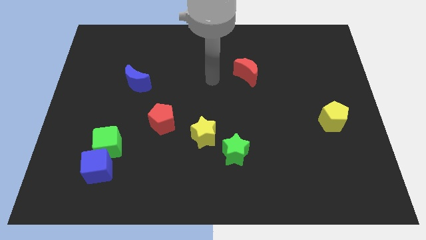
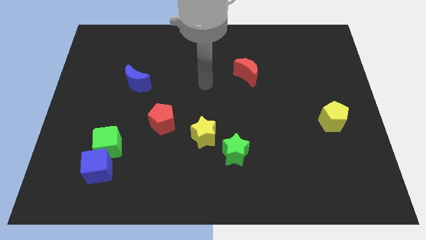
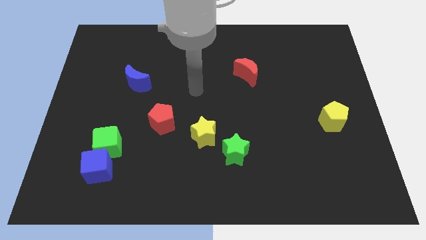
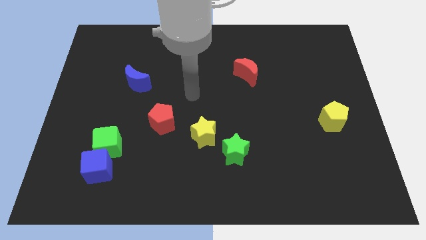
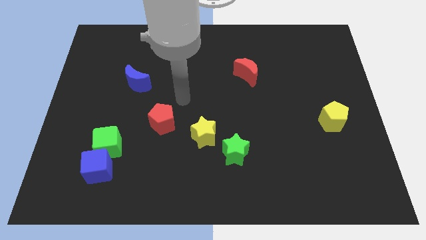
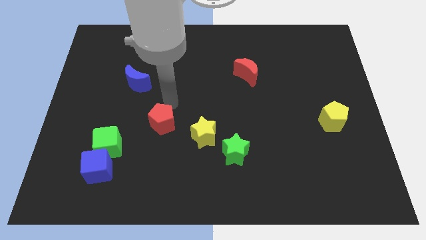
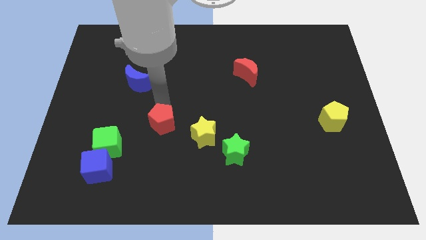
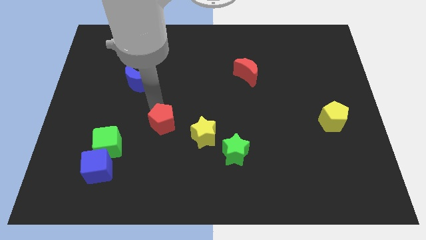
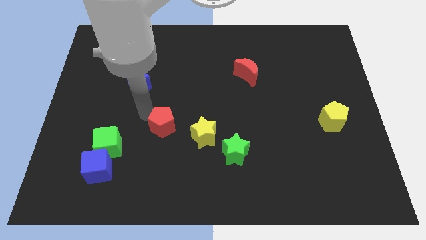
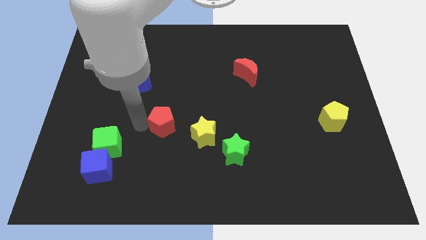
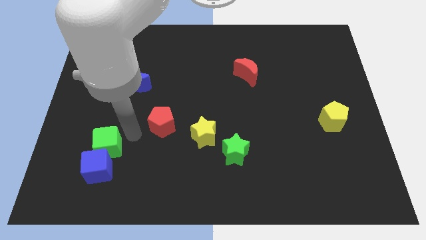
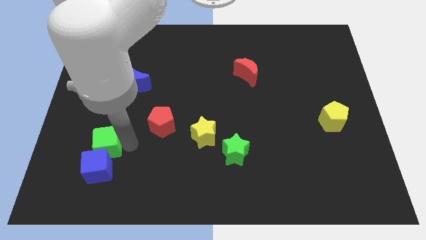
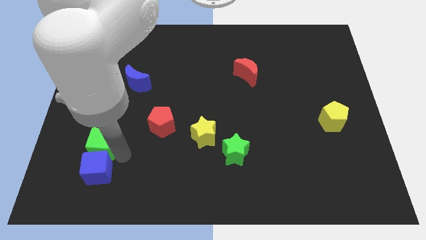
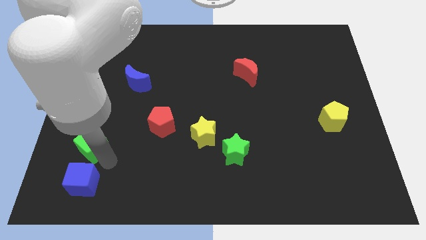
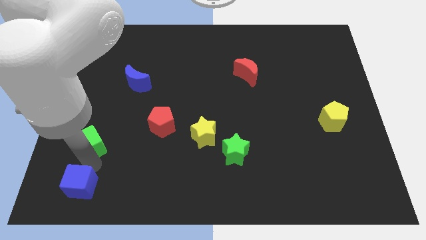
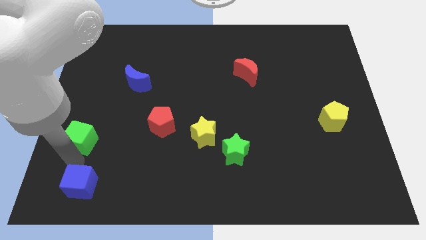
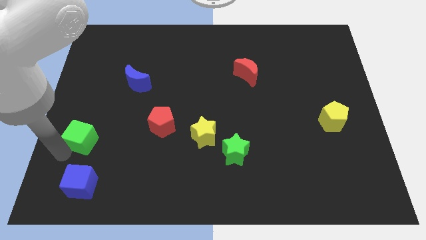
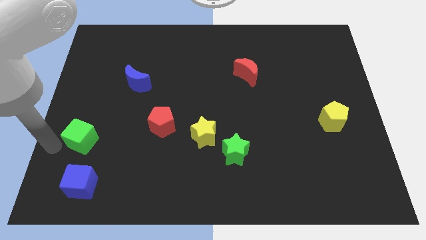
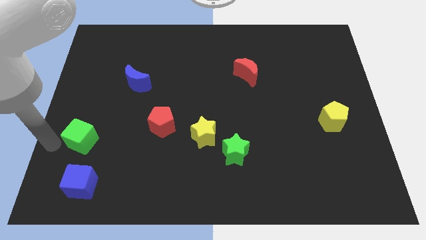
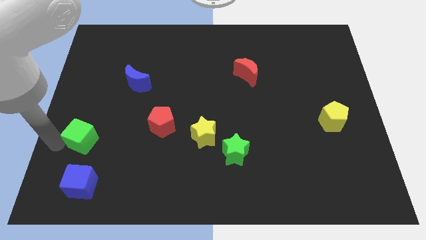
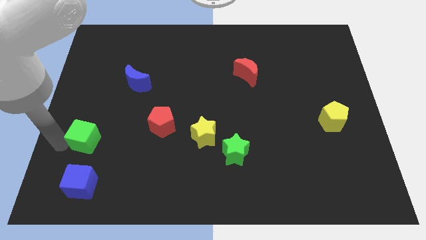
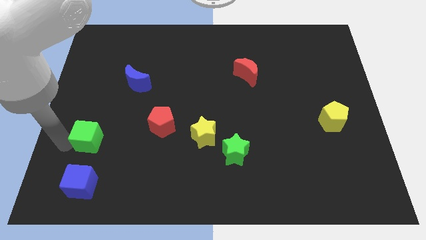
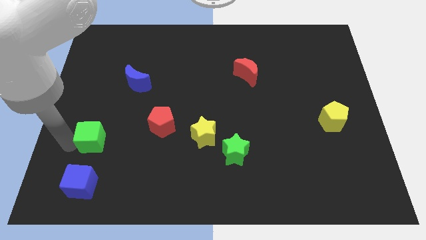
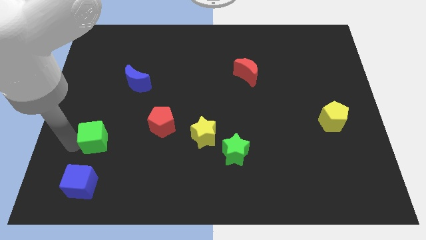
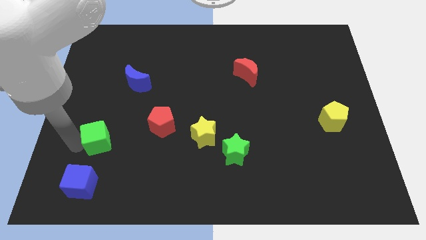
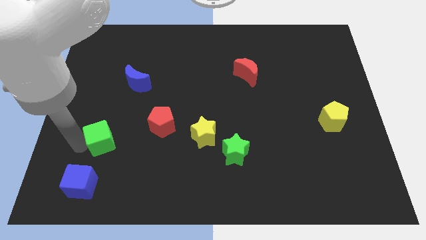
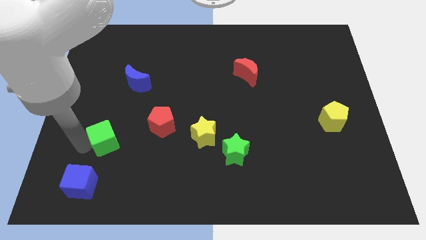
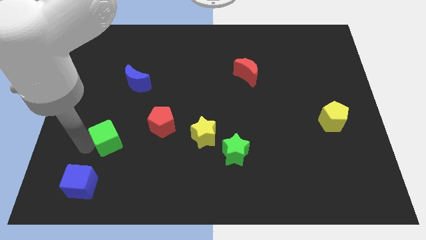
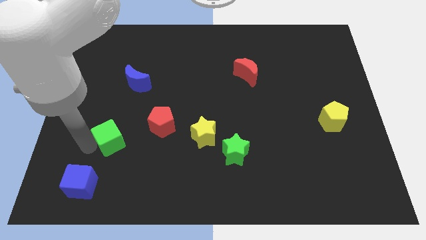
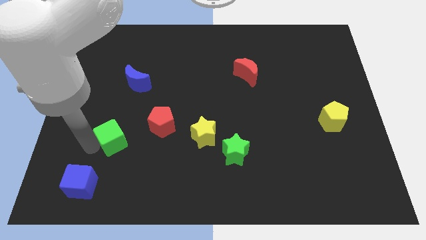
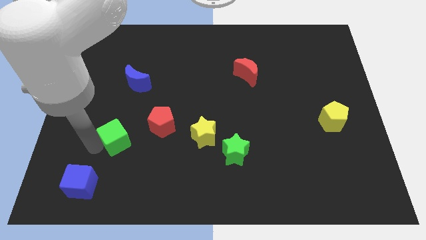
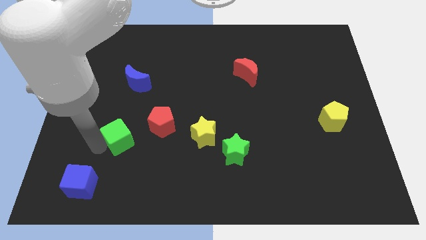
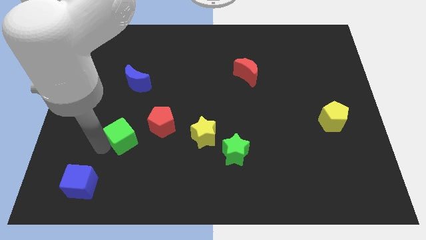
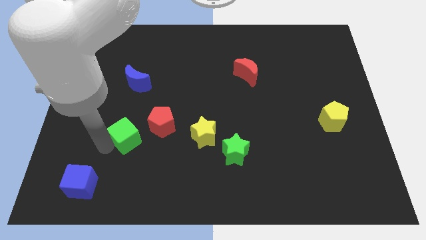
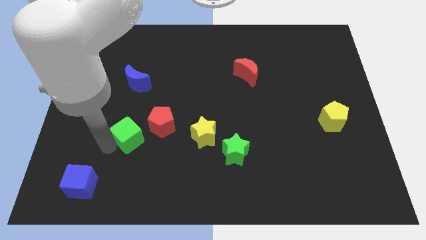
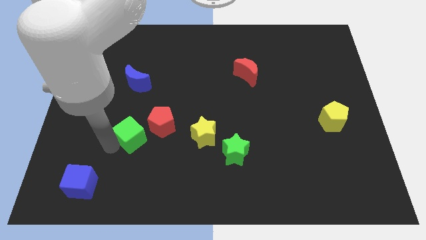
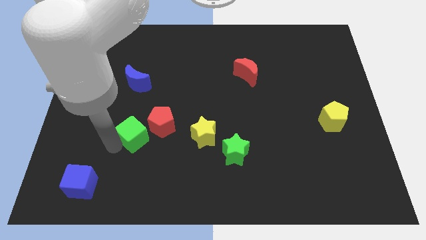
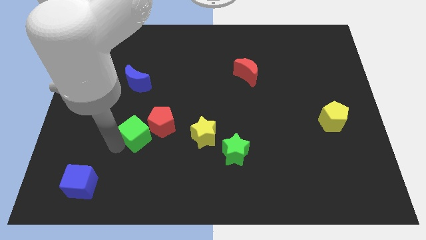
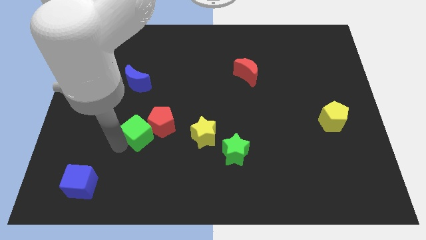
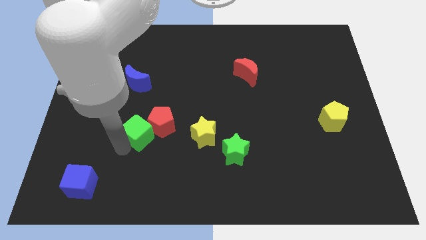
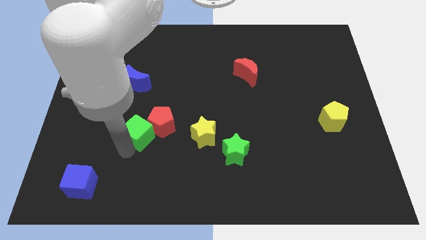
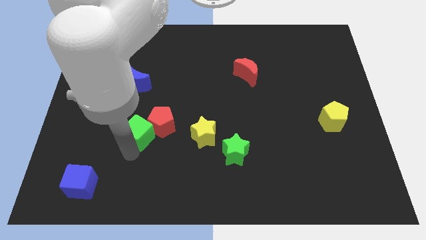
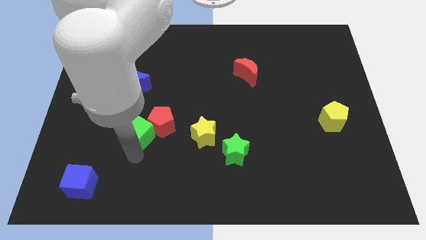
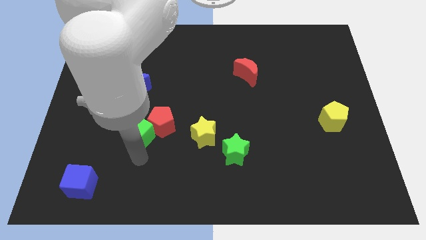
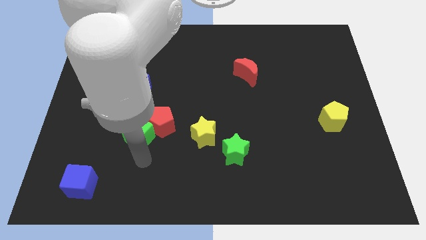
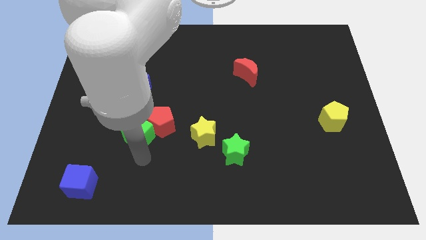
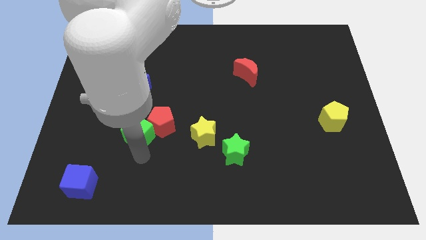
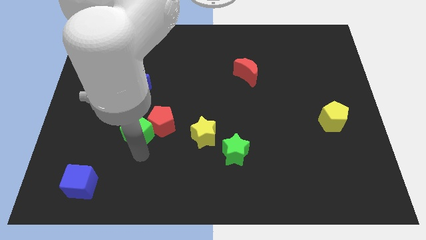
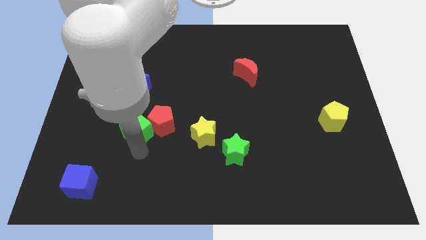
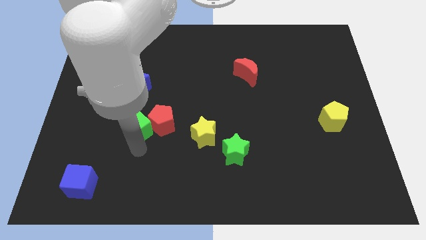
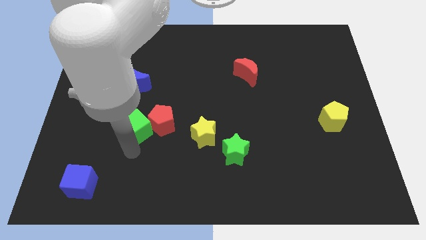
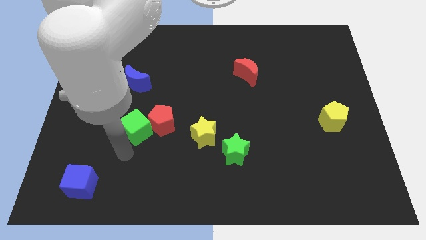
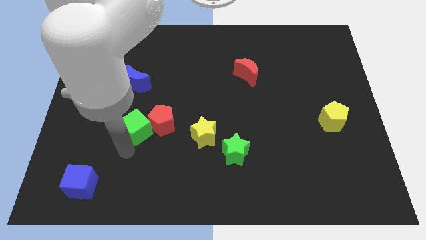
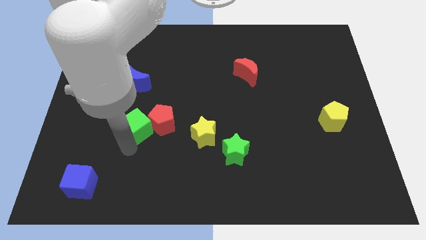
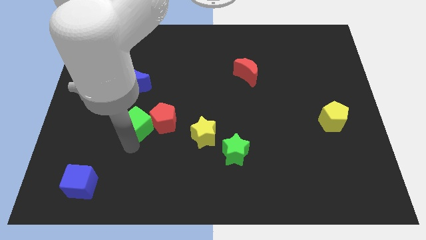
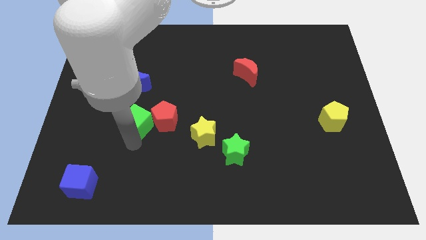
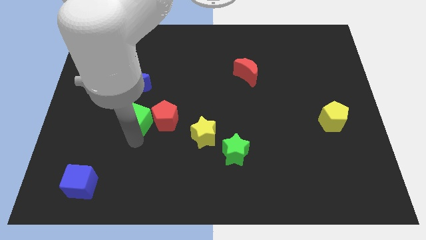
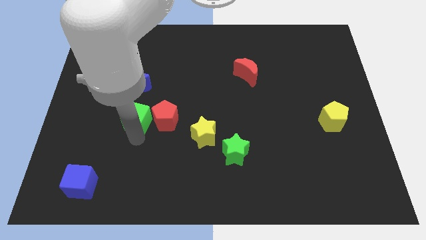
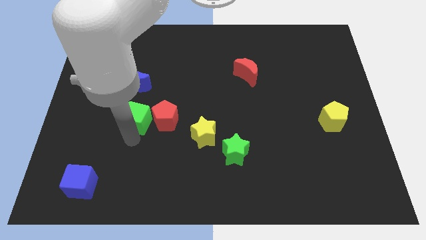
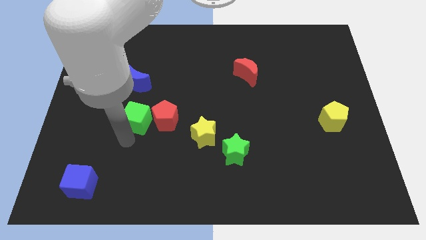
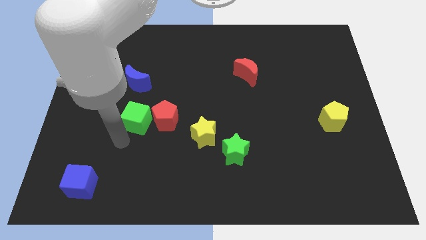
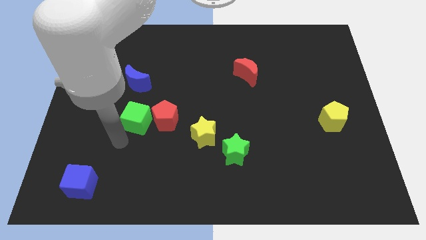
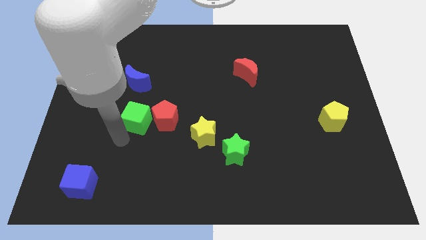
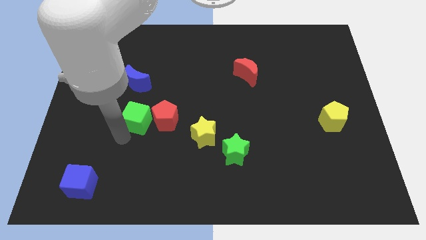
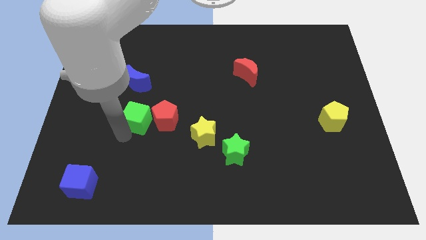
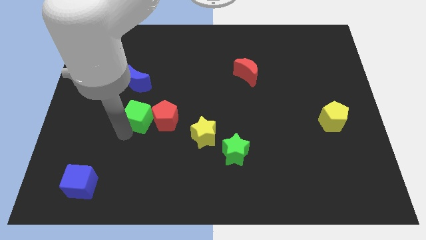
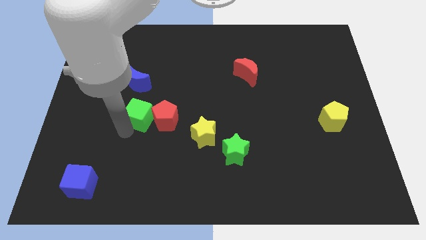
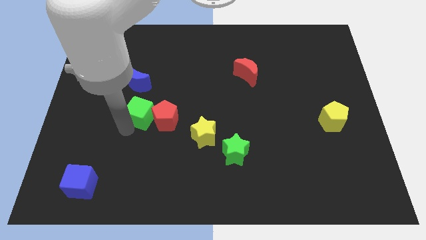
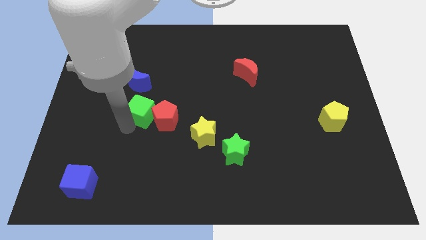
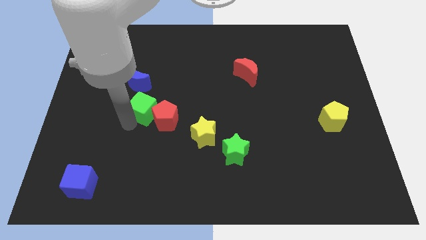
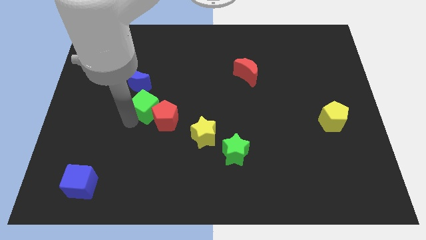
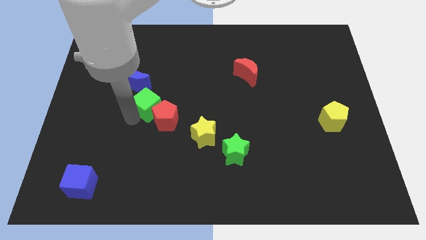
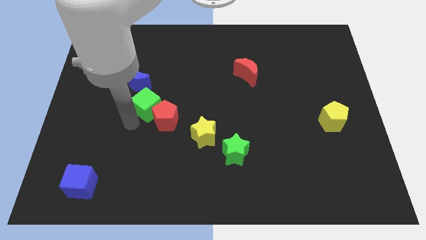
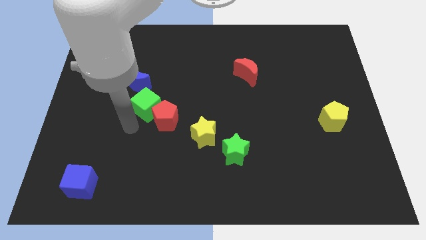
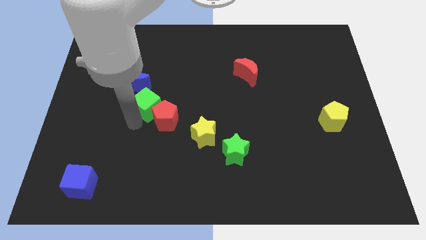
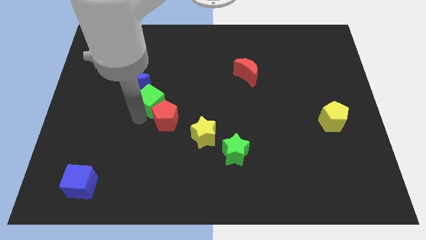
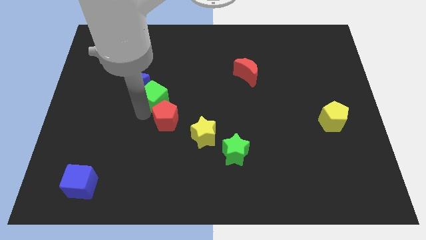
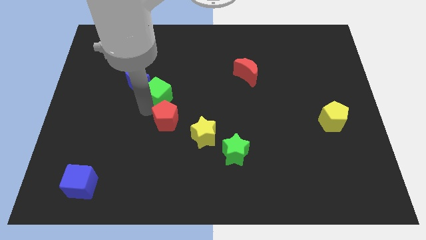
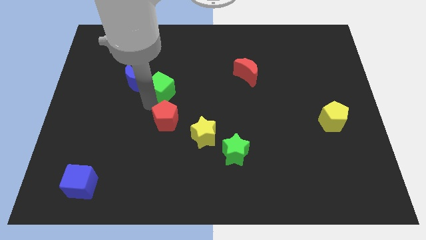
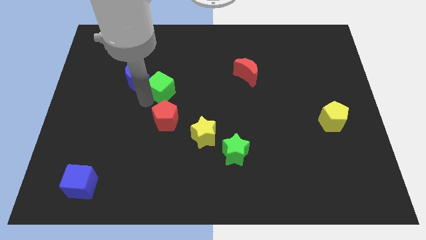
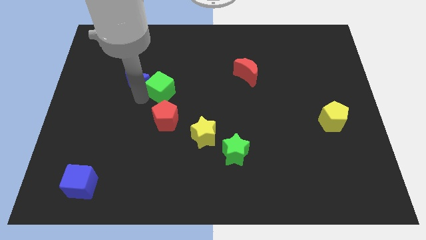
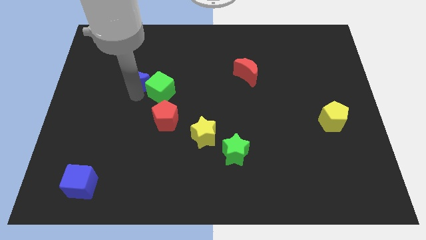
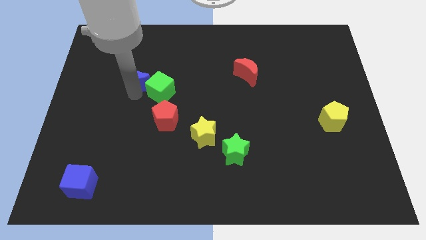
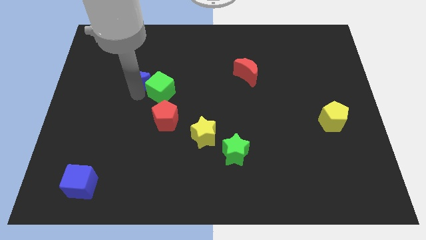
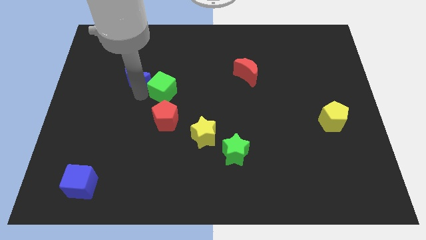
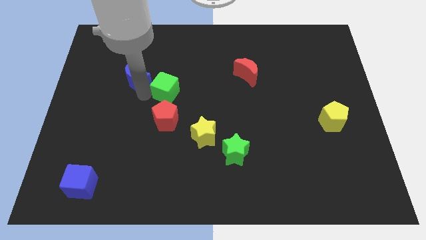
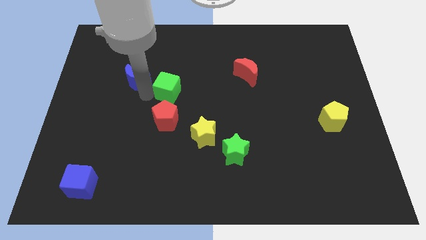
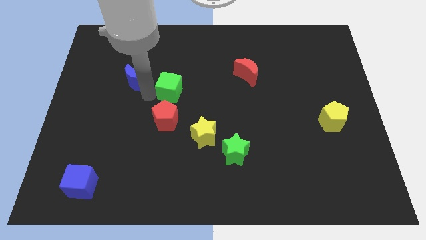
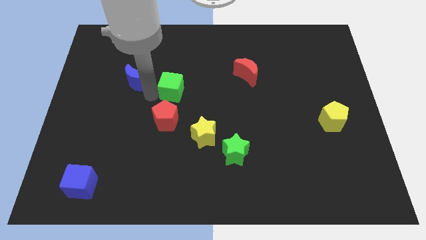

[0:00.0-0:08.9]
push the green cube upwards and to the right
